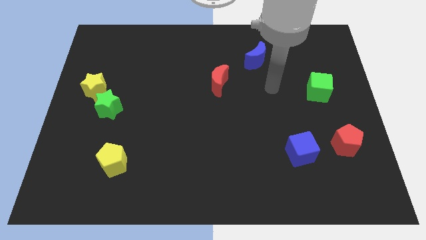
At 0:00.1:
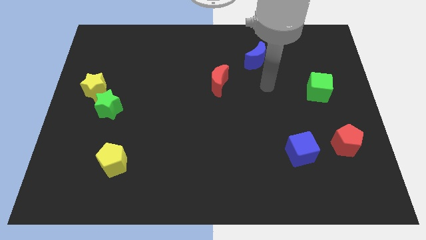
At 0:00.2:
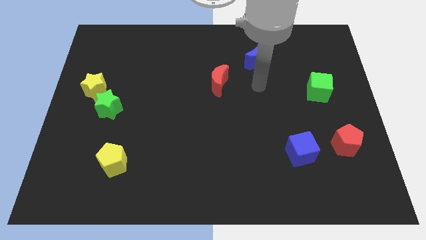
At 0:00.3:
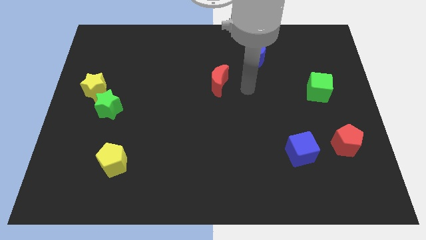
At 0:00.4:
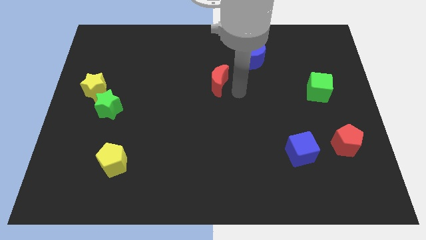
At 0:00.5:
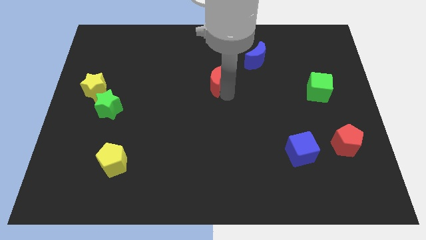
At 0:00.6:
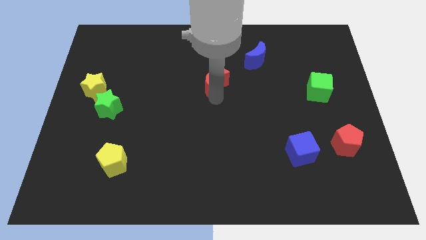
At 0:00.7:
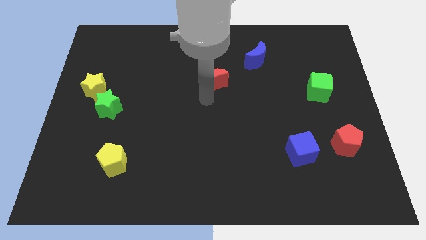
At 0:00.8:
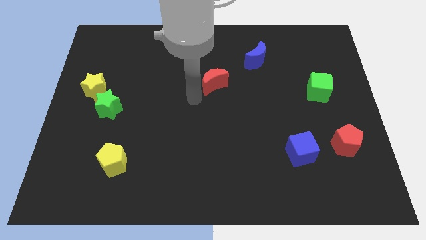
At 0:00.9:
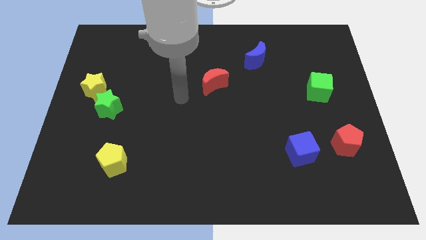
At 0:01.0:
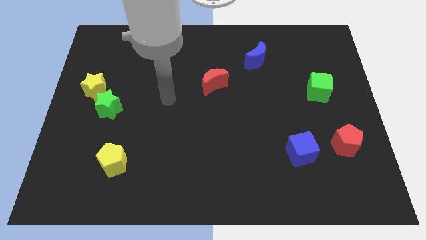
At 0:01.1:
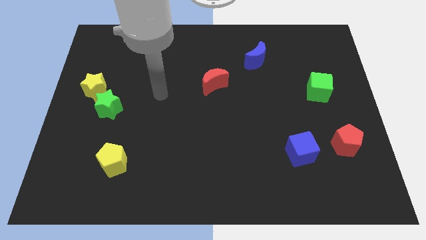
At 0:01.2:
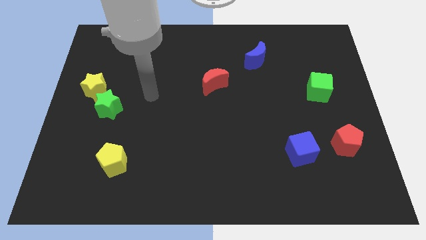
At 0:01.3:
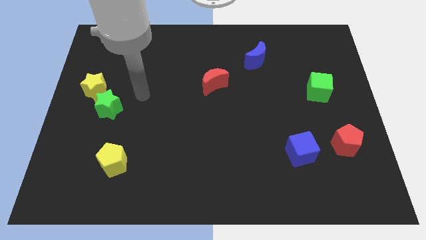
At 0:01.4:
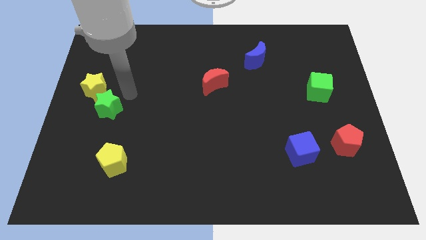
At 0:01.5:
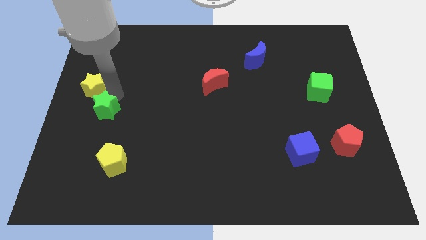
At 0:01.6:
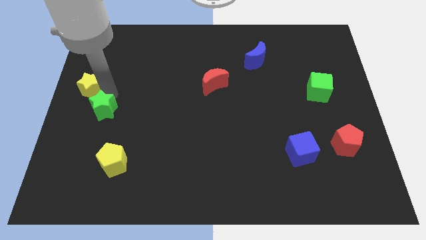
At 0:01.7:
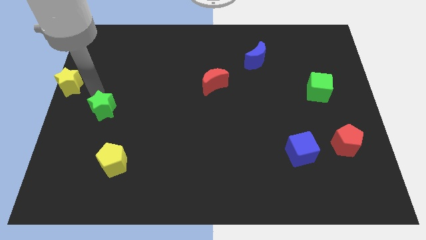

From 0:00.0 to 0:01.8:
pull the green star apart from the yellow star

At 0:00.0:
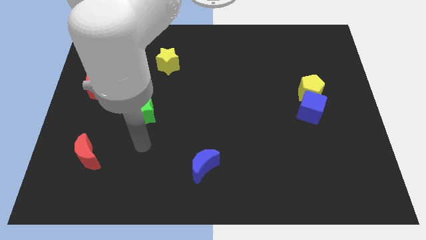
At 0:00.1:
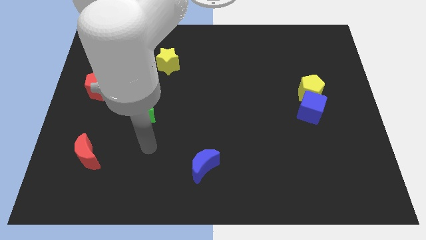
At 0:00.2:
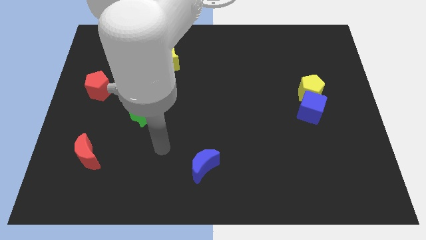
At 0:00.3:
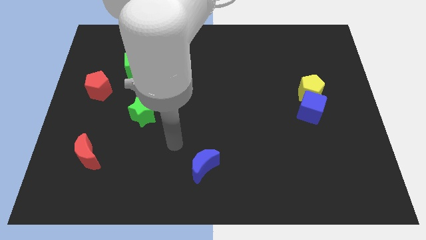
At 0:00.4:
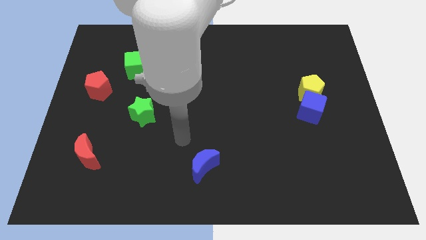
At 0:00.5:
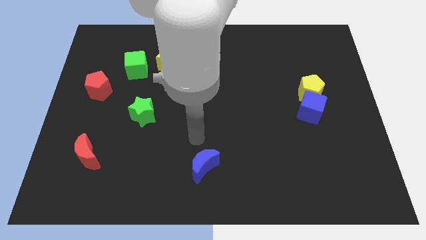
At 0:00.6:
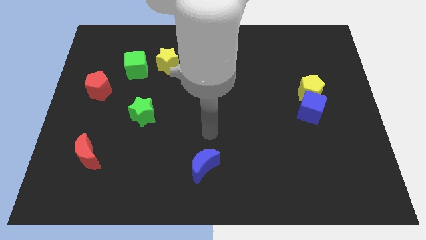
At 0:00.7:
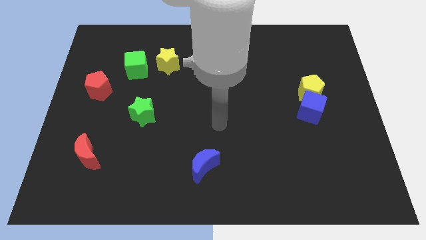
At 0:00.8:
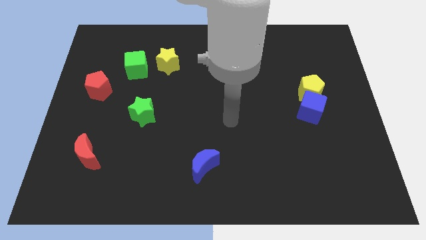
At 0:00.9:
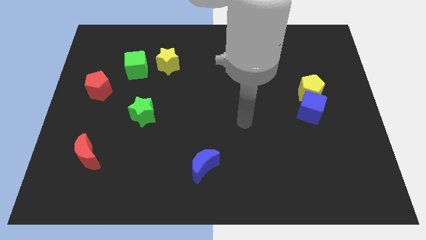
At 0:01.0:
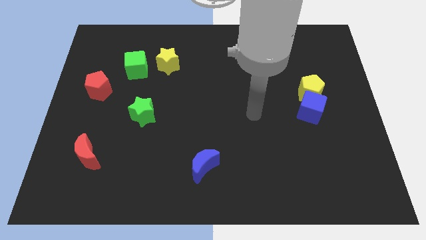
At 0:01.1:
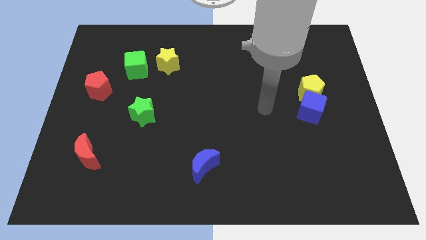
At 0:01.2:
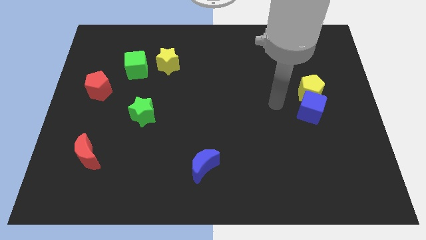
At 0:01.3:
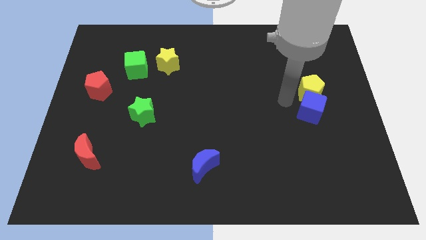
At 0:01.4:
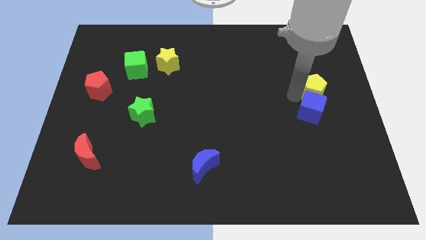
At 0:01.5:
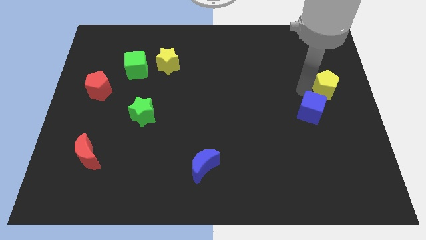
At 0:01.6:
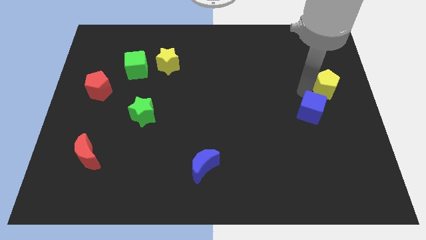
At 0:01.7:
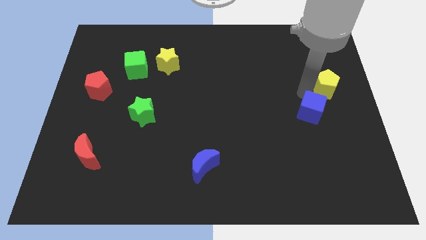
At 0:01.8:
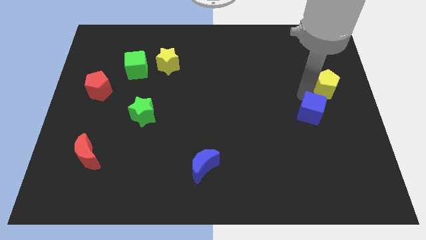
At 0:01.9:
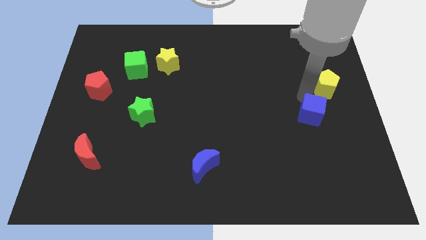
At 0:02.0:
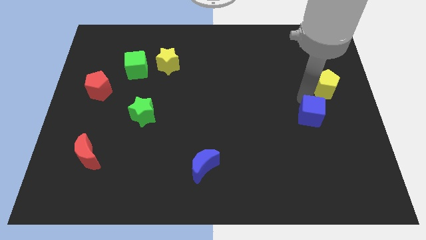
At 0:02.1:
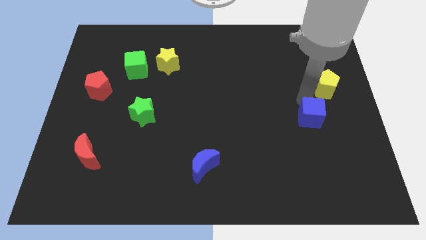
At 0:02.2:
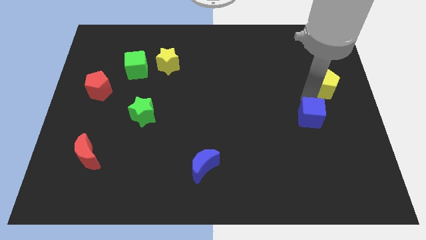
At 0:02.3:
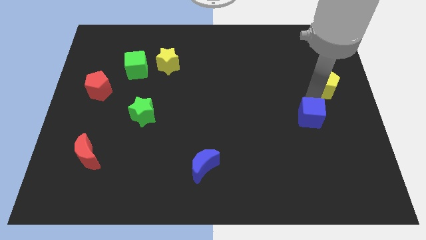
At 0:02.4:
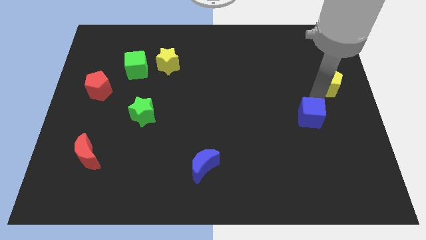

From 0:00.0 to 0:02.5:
move the blue cube away from the yellow pentagon

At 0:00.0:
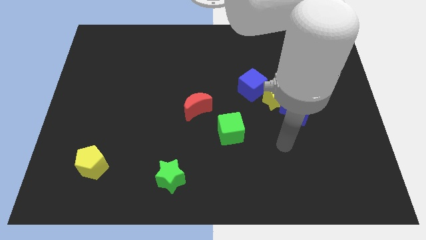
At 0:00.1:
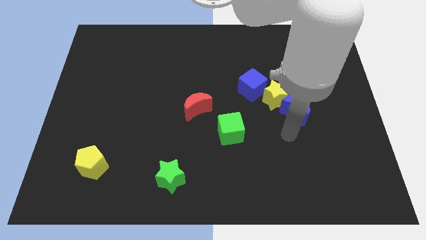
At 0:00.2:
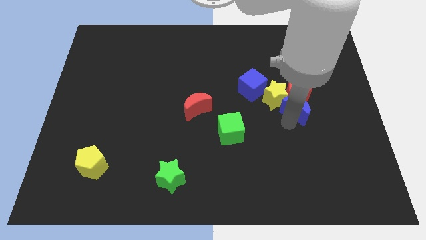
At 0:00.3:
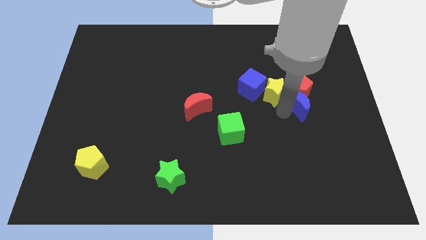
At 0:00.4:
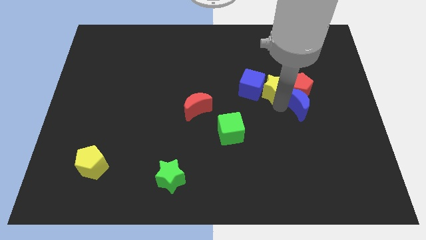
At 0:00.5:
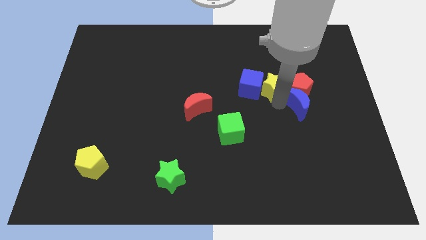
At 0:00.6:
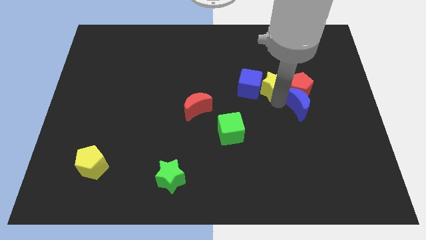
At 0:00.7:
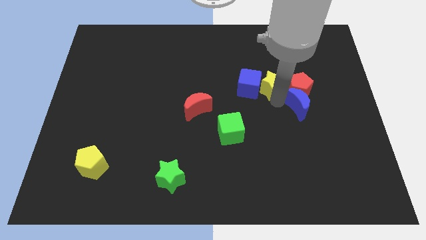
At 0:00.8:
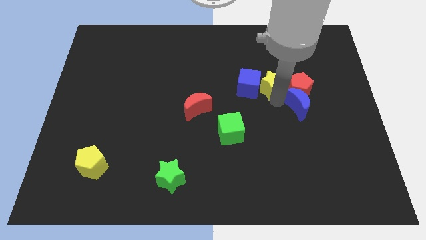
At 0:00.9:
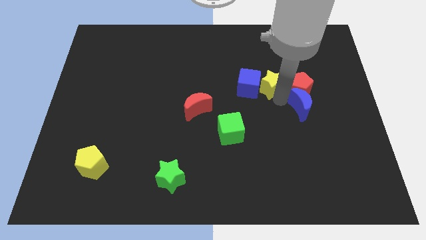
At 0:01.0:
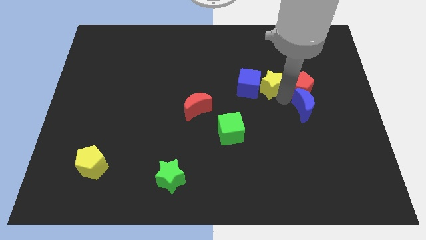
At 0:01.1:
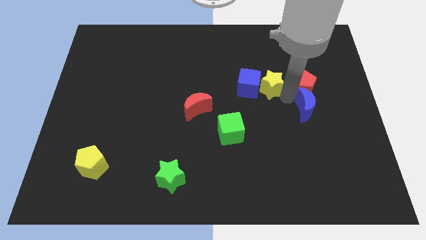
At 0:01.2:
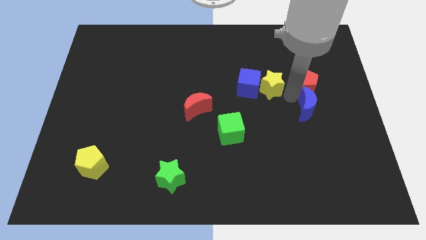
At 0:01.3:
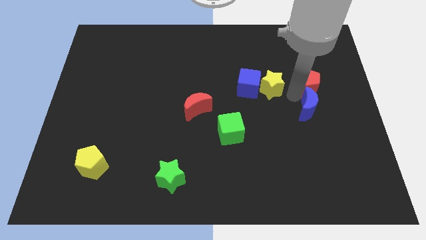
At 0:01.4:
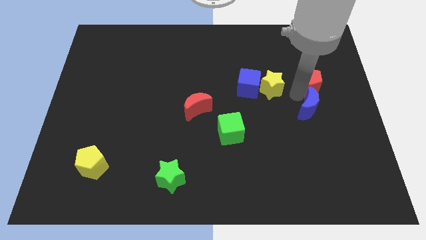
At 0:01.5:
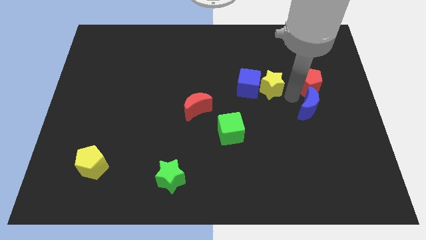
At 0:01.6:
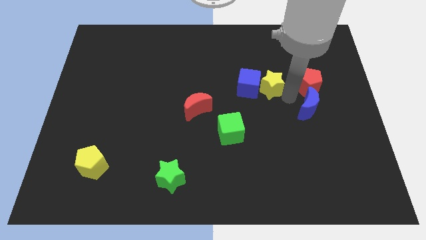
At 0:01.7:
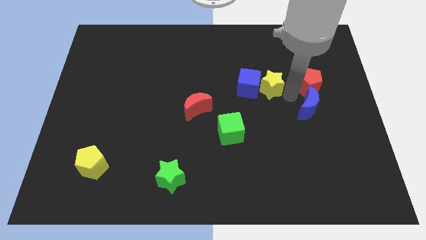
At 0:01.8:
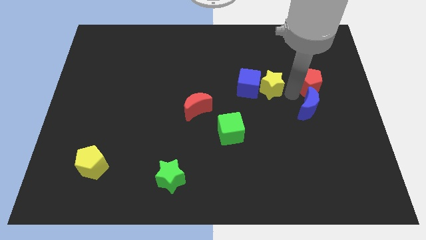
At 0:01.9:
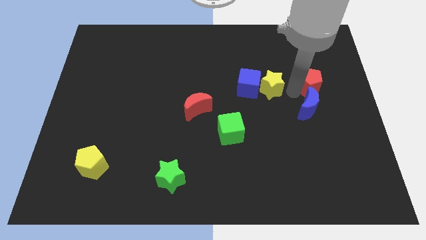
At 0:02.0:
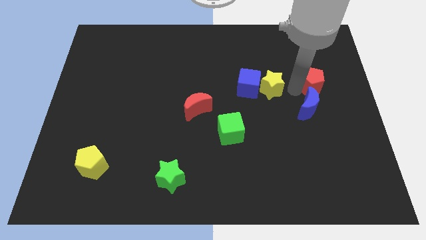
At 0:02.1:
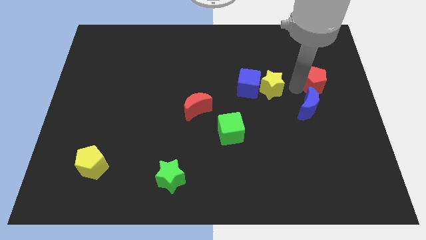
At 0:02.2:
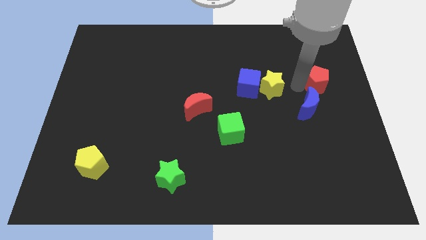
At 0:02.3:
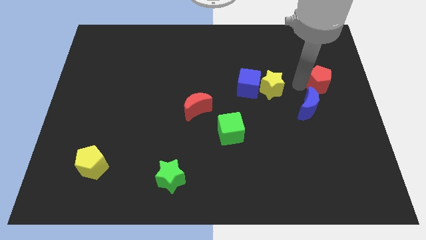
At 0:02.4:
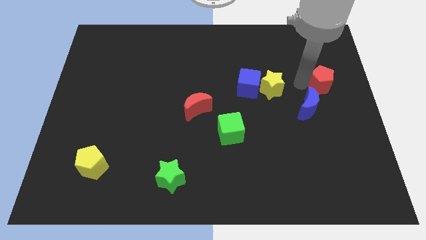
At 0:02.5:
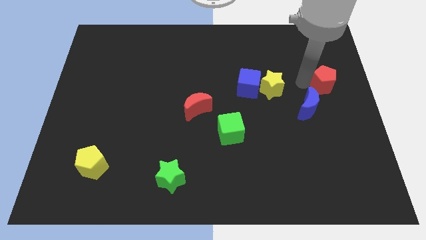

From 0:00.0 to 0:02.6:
separate the red pentagon from the blue moon and yellow star

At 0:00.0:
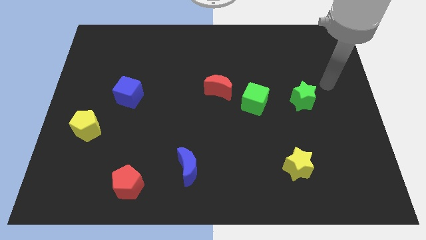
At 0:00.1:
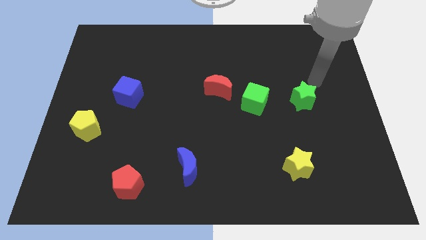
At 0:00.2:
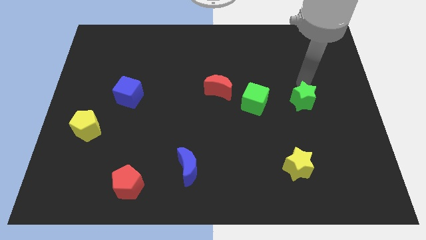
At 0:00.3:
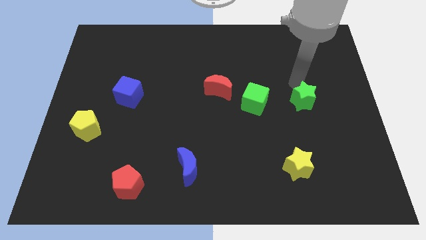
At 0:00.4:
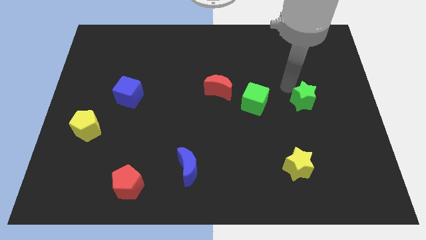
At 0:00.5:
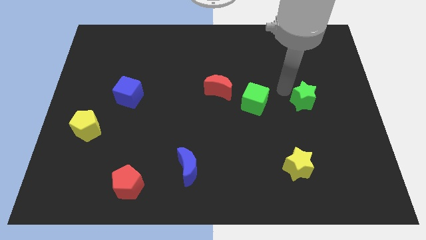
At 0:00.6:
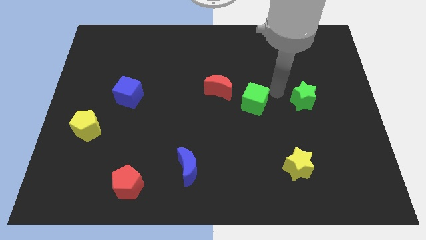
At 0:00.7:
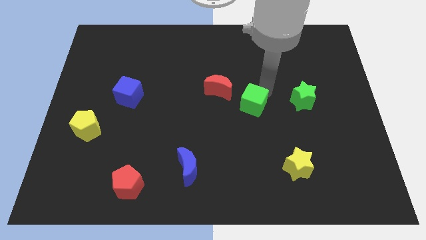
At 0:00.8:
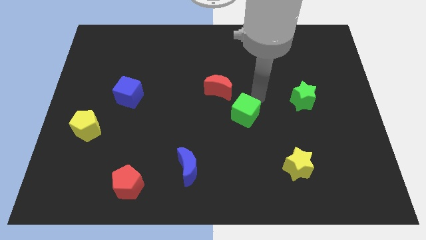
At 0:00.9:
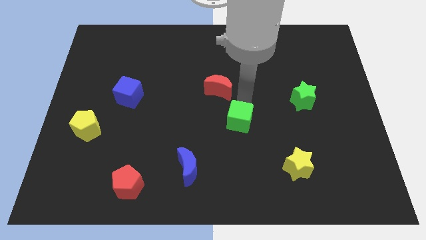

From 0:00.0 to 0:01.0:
pull the red moon apart from the green cube

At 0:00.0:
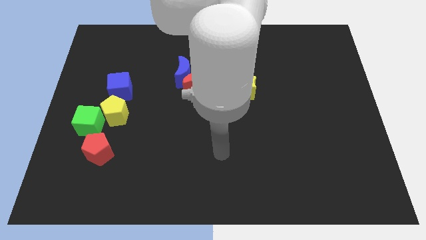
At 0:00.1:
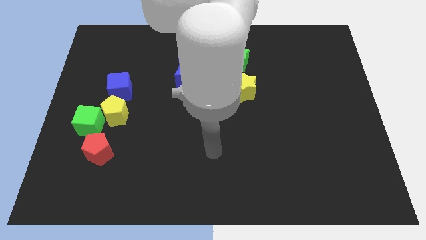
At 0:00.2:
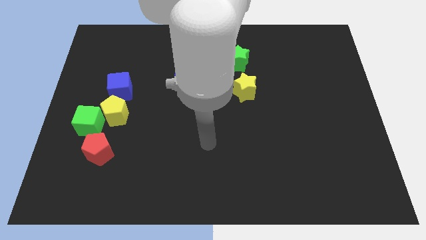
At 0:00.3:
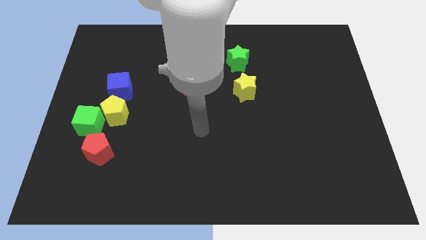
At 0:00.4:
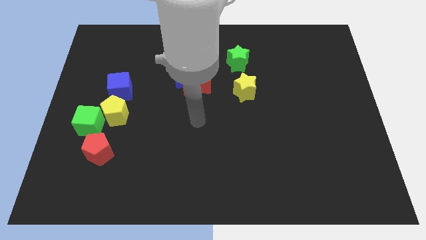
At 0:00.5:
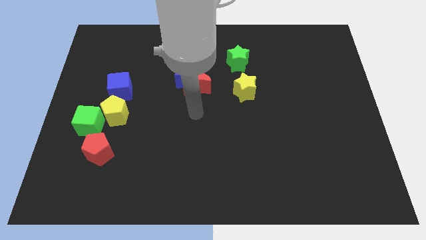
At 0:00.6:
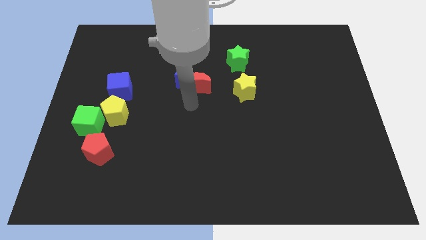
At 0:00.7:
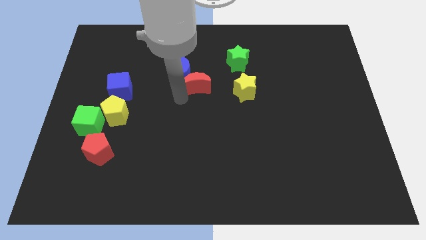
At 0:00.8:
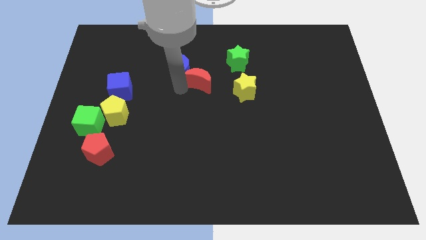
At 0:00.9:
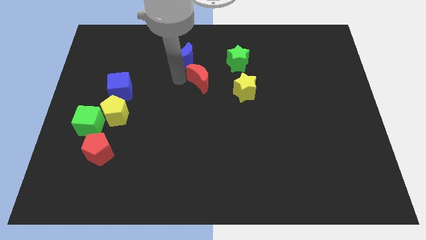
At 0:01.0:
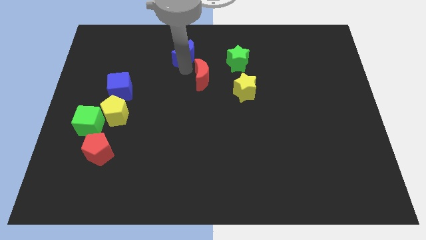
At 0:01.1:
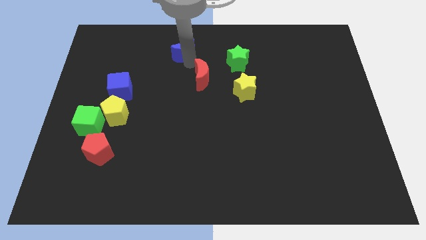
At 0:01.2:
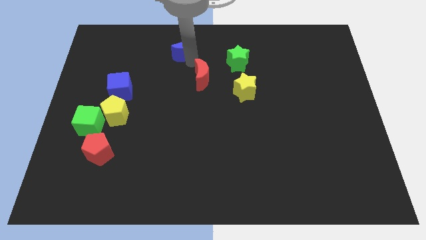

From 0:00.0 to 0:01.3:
move the red moon away from the blue moon
